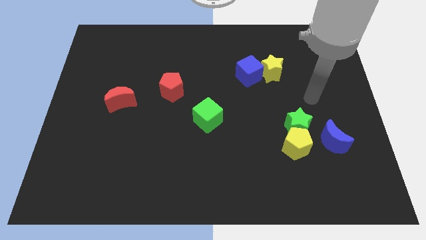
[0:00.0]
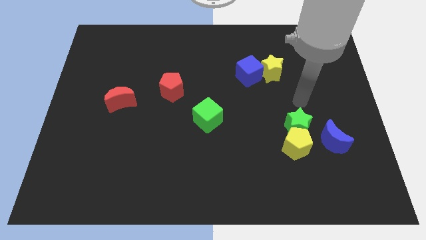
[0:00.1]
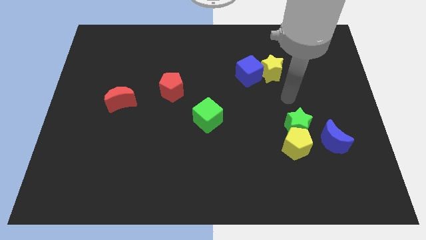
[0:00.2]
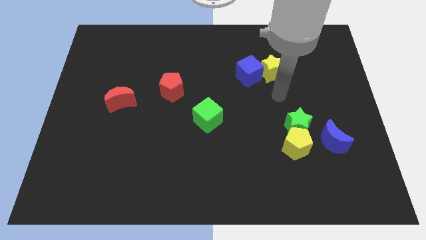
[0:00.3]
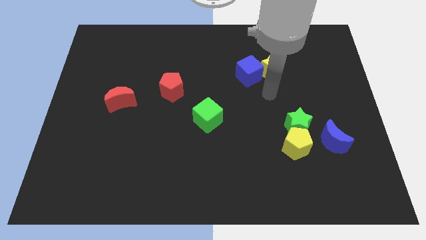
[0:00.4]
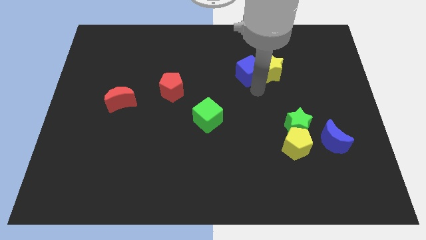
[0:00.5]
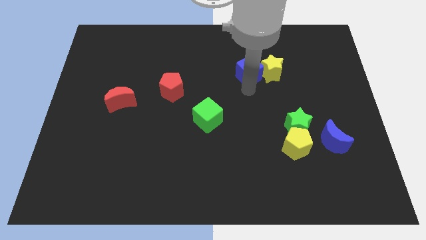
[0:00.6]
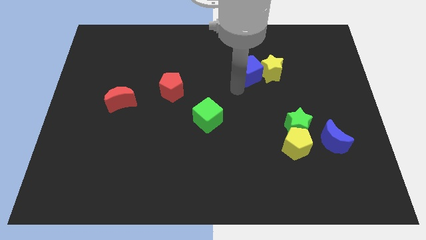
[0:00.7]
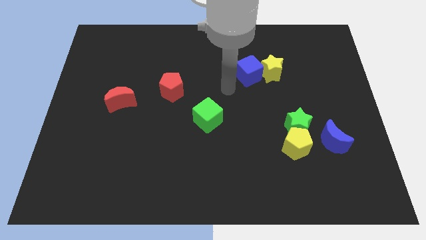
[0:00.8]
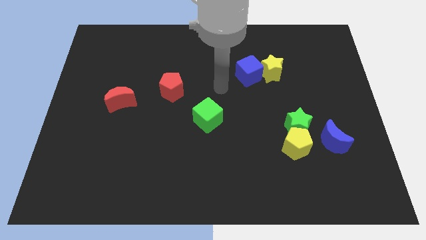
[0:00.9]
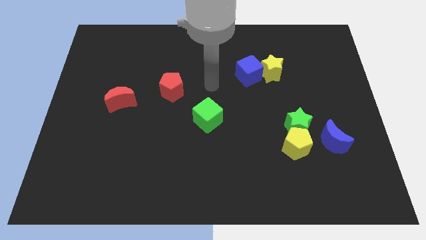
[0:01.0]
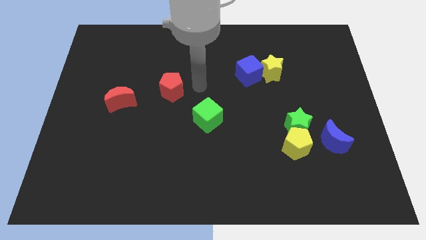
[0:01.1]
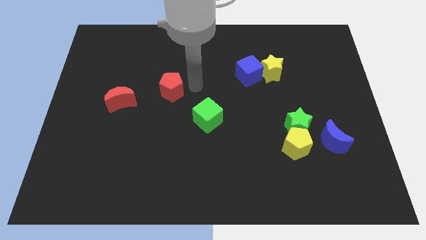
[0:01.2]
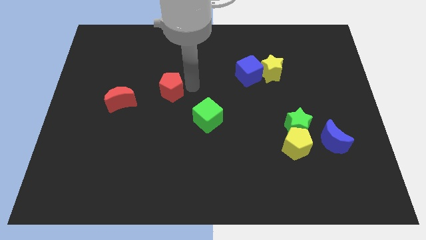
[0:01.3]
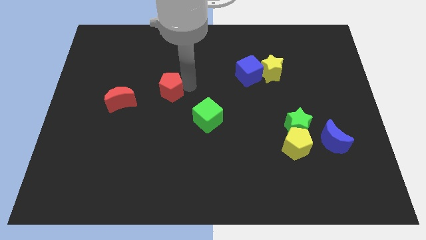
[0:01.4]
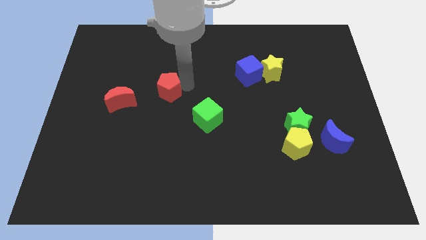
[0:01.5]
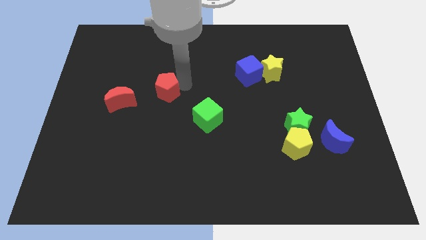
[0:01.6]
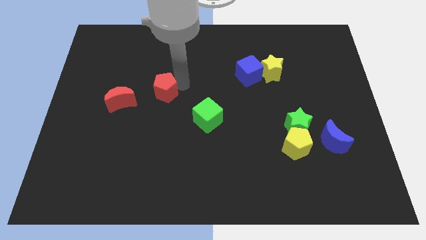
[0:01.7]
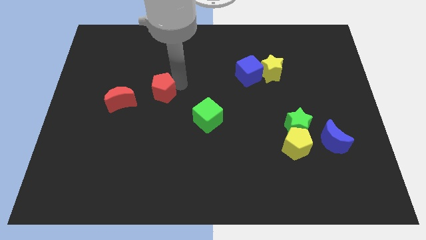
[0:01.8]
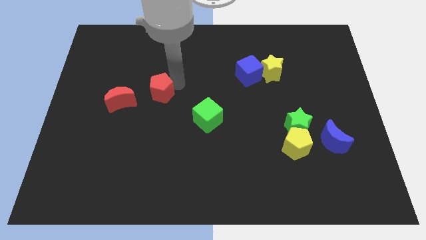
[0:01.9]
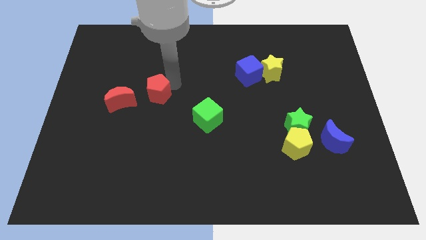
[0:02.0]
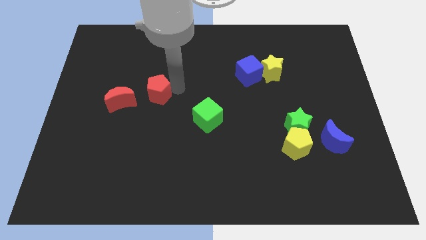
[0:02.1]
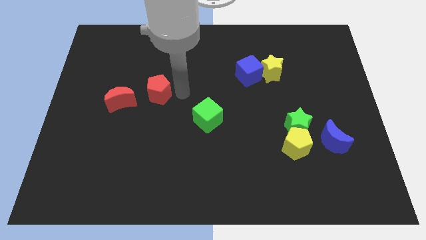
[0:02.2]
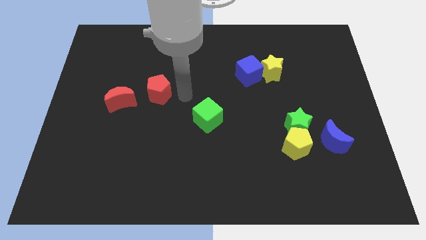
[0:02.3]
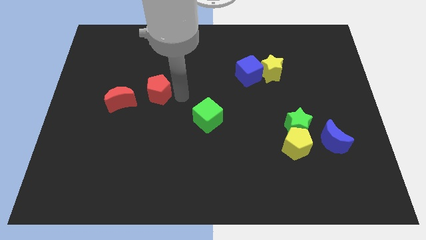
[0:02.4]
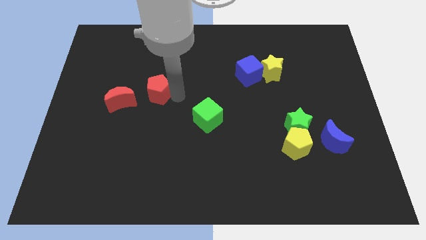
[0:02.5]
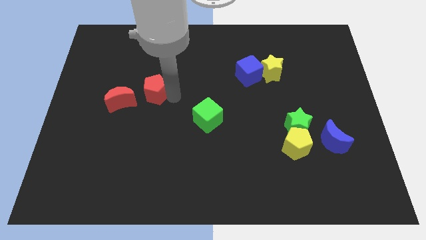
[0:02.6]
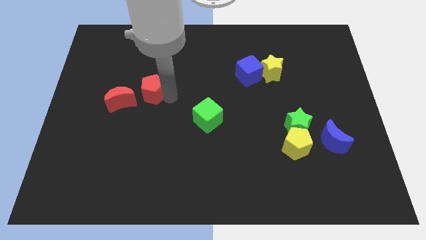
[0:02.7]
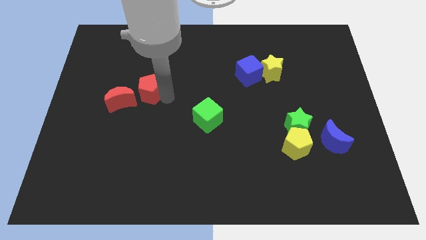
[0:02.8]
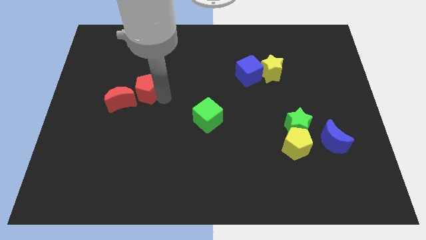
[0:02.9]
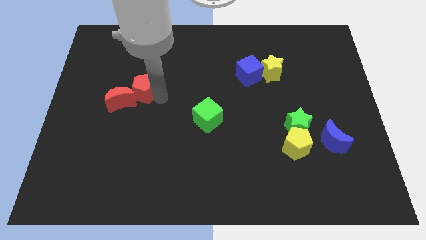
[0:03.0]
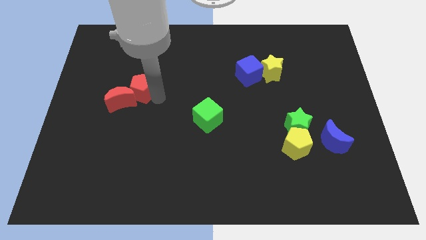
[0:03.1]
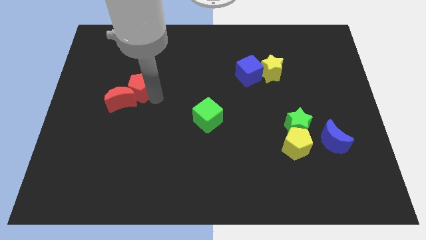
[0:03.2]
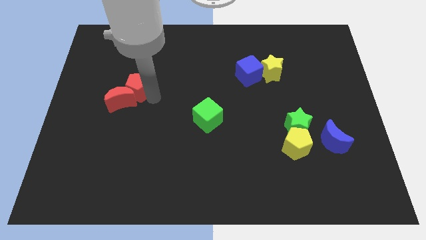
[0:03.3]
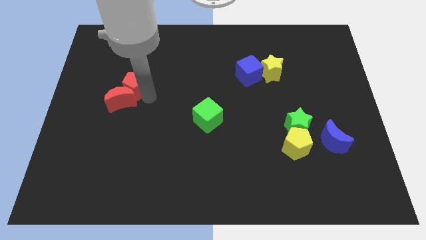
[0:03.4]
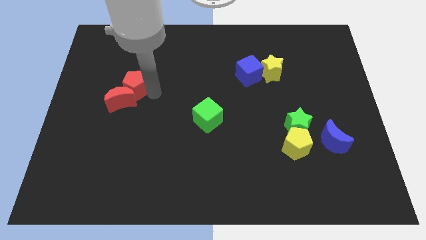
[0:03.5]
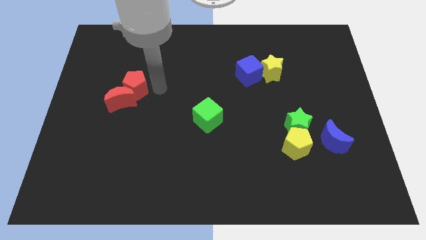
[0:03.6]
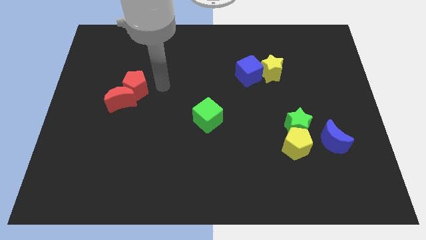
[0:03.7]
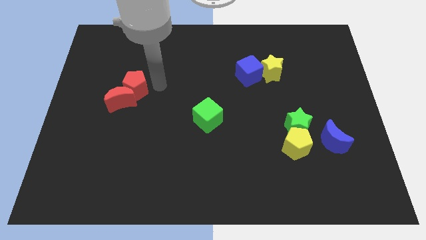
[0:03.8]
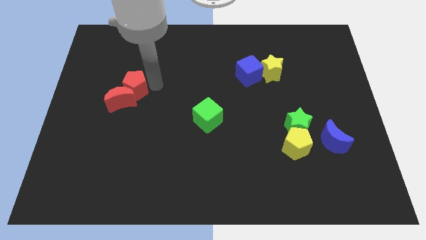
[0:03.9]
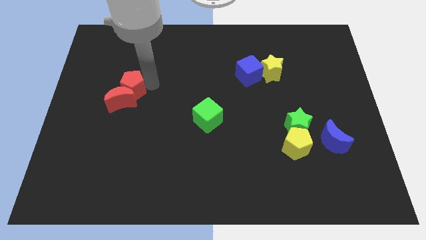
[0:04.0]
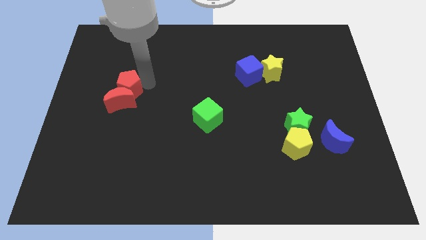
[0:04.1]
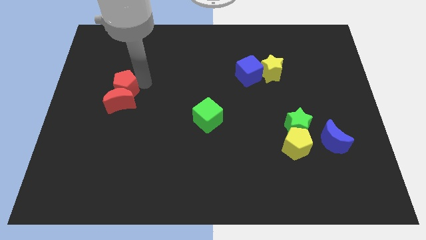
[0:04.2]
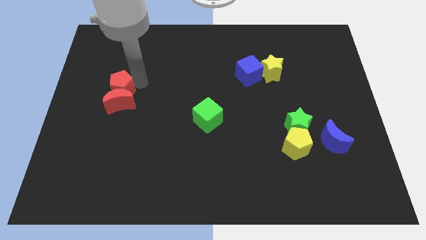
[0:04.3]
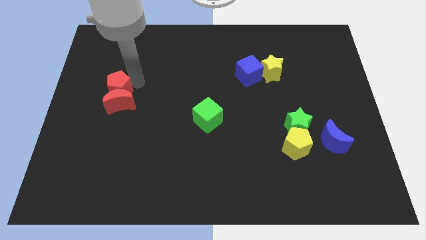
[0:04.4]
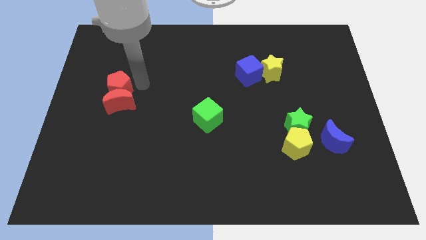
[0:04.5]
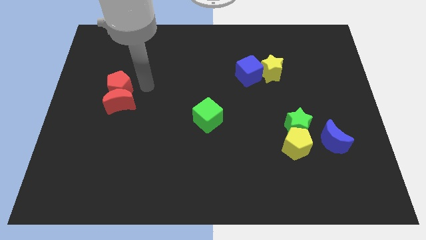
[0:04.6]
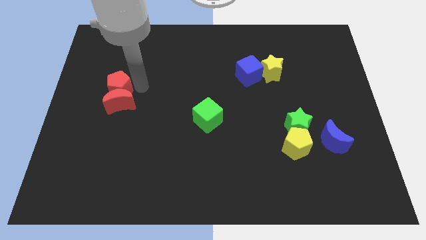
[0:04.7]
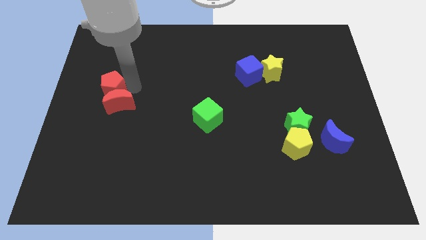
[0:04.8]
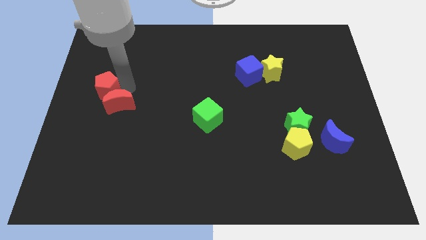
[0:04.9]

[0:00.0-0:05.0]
slide the red pentagon to the center left

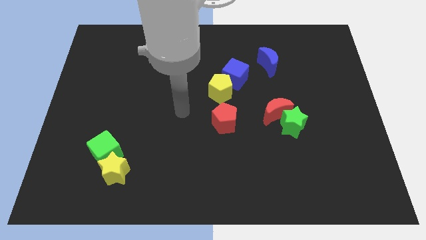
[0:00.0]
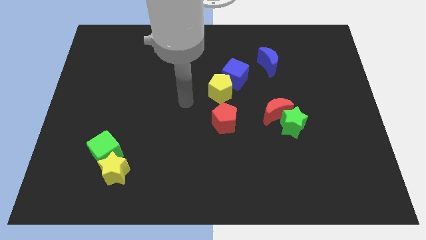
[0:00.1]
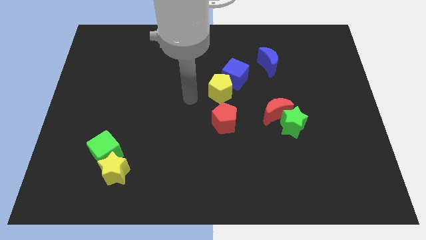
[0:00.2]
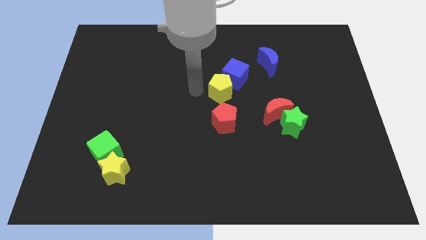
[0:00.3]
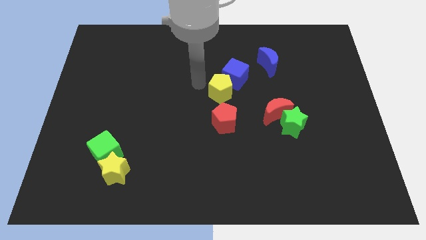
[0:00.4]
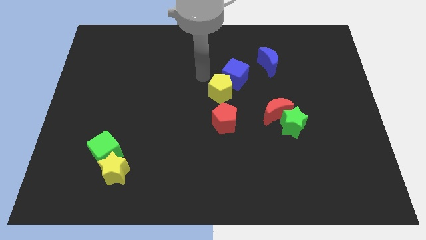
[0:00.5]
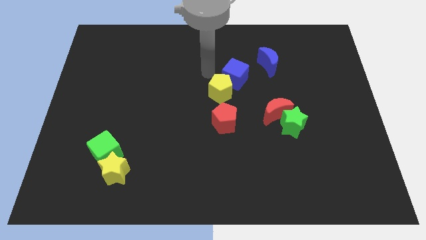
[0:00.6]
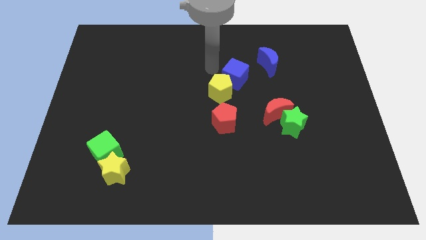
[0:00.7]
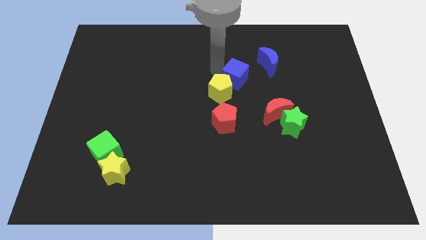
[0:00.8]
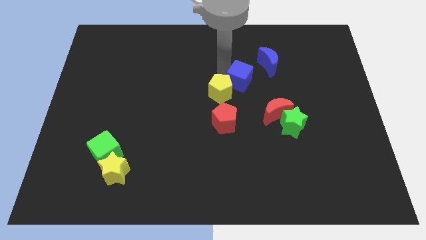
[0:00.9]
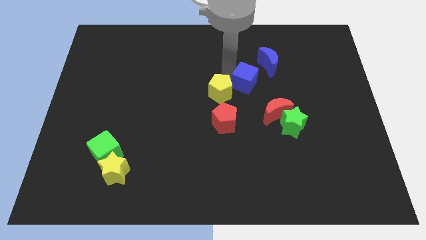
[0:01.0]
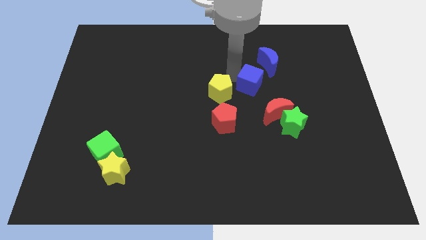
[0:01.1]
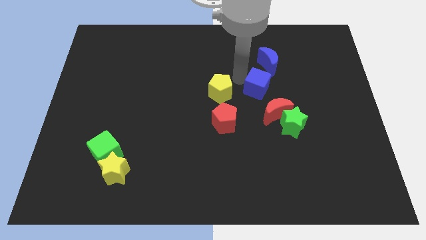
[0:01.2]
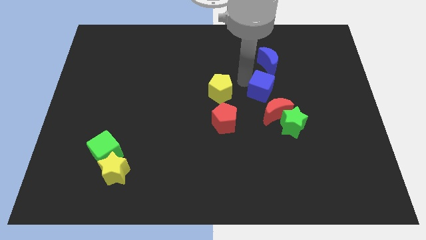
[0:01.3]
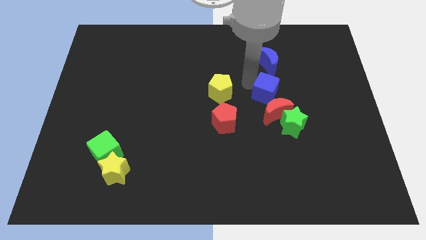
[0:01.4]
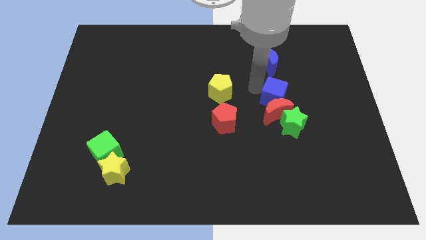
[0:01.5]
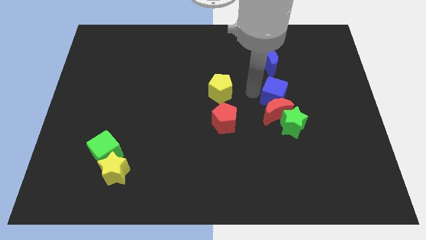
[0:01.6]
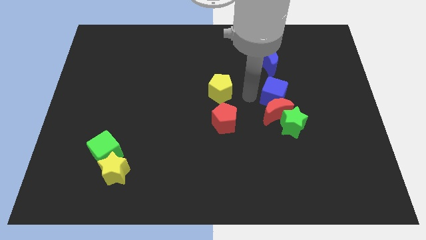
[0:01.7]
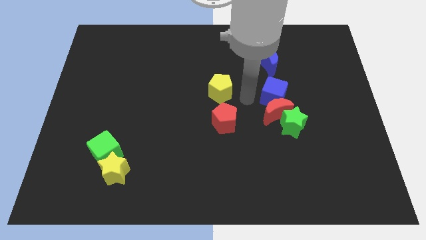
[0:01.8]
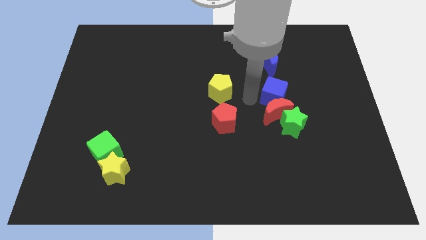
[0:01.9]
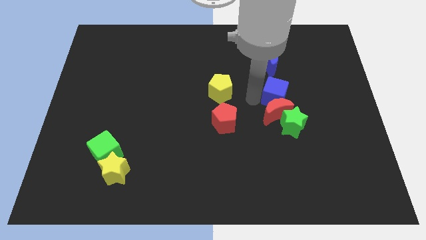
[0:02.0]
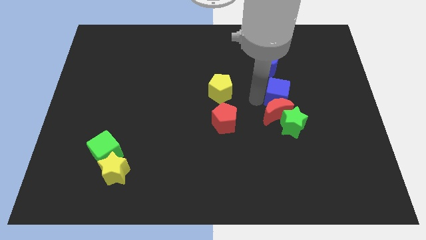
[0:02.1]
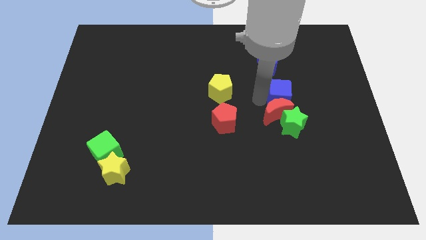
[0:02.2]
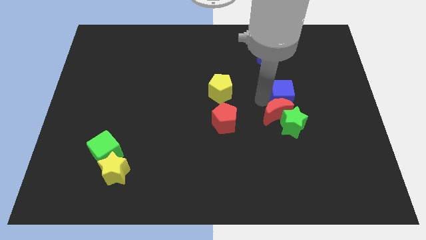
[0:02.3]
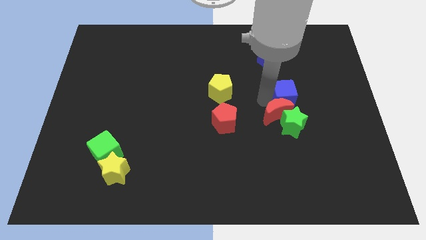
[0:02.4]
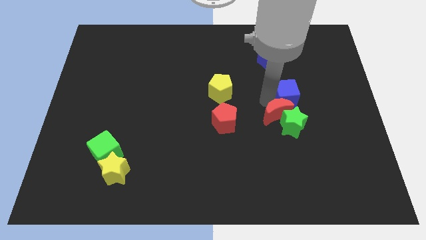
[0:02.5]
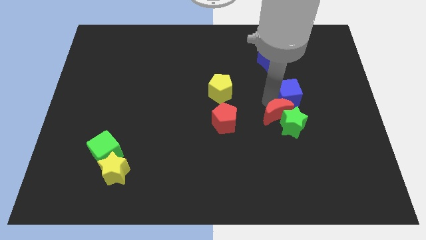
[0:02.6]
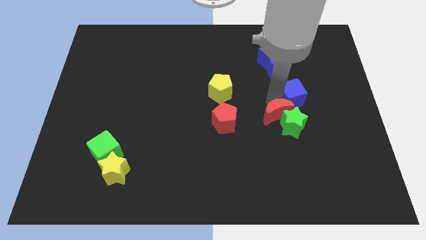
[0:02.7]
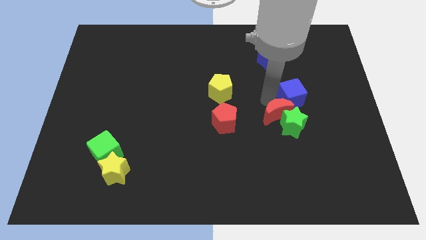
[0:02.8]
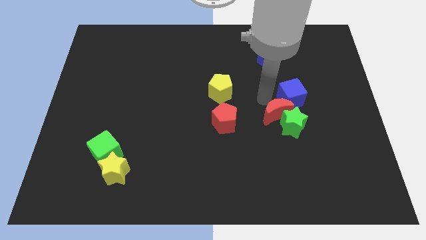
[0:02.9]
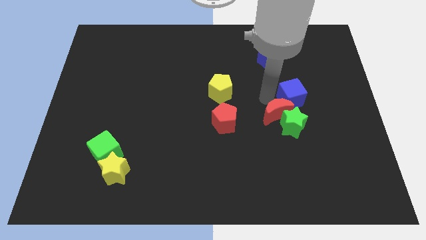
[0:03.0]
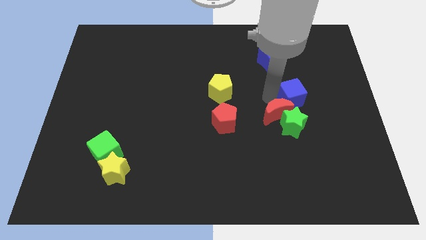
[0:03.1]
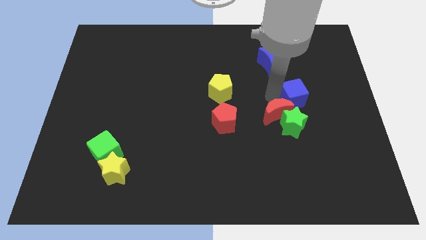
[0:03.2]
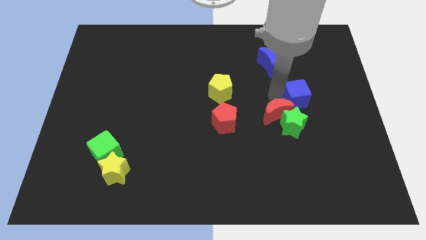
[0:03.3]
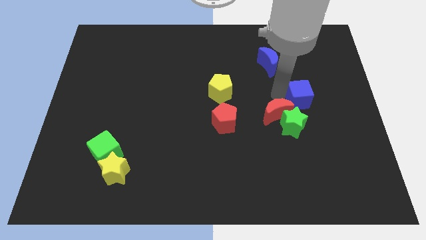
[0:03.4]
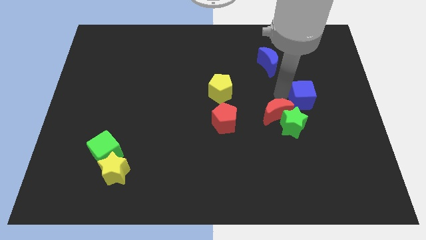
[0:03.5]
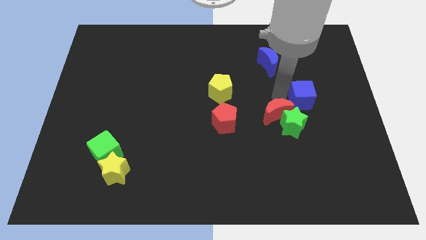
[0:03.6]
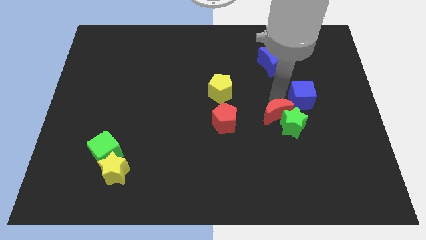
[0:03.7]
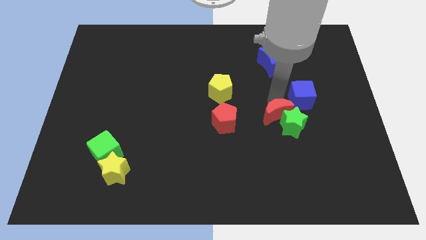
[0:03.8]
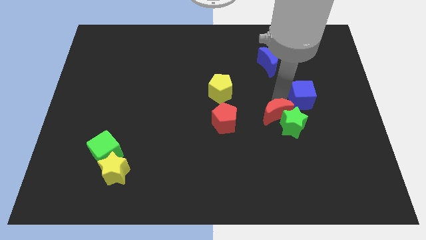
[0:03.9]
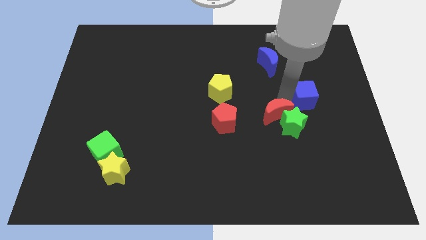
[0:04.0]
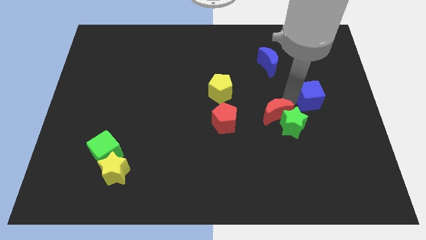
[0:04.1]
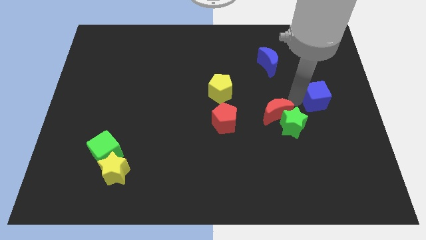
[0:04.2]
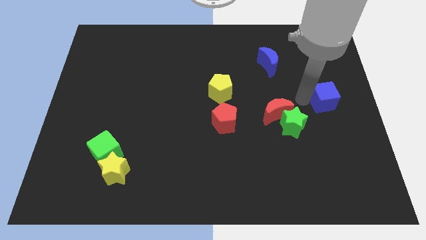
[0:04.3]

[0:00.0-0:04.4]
push the blue cube to the center right
